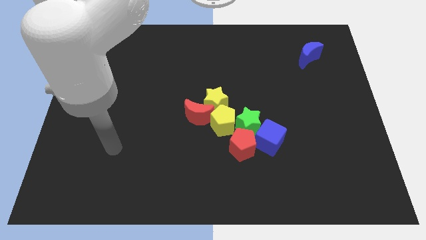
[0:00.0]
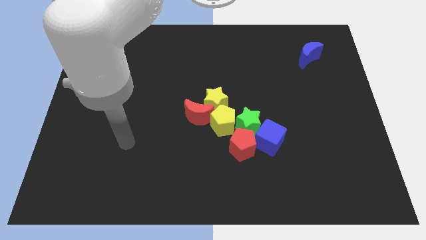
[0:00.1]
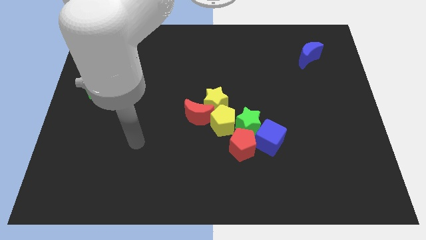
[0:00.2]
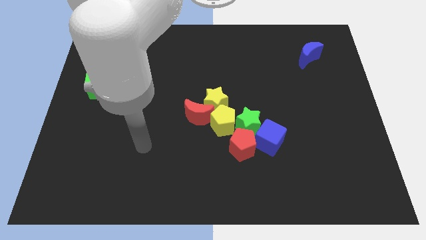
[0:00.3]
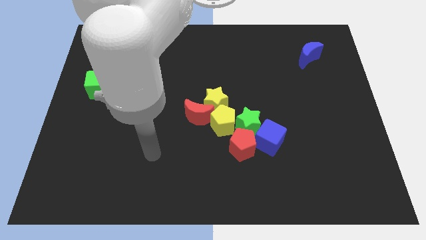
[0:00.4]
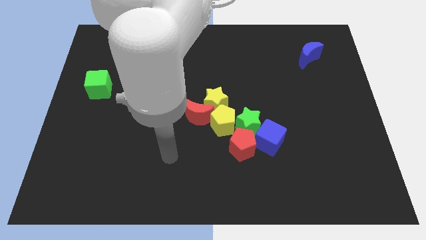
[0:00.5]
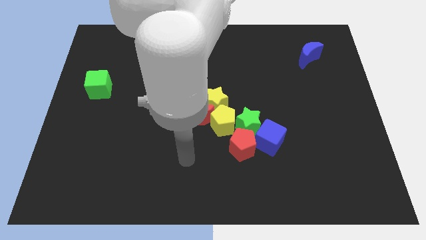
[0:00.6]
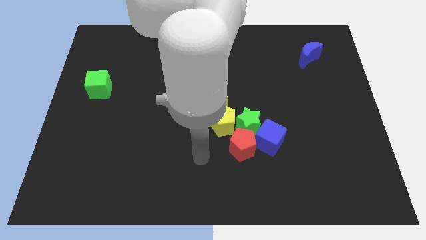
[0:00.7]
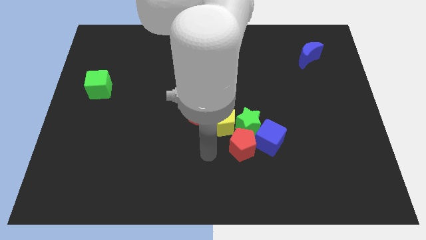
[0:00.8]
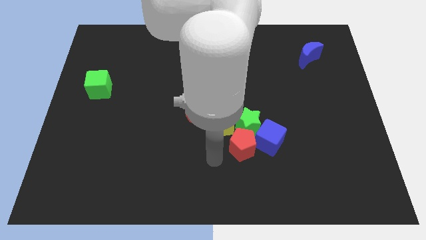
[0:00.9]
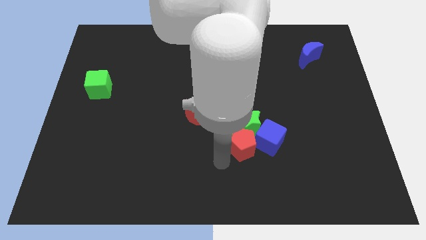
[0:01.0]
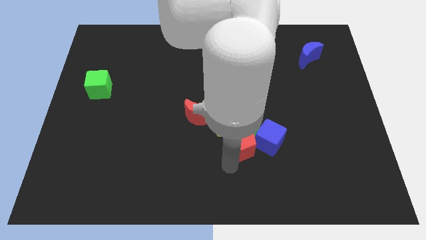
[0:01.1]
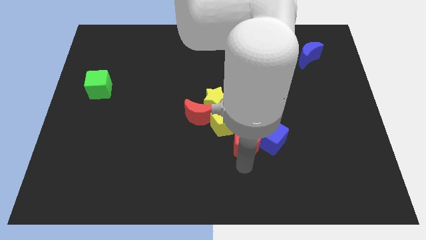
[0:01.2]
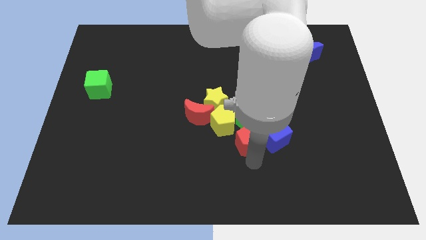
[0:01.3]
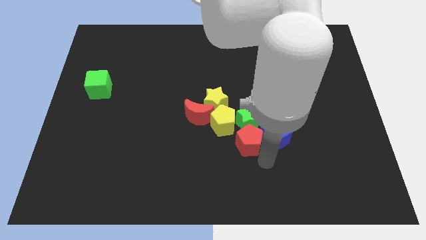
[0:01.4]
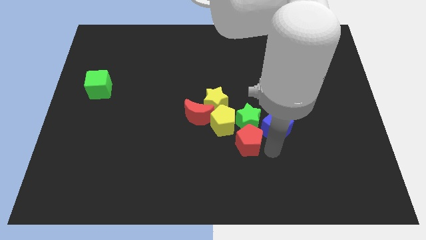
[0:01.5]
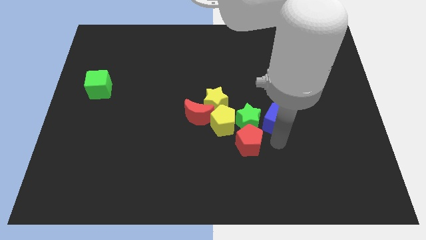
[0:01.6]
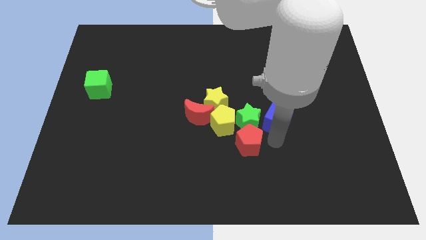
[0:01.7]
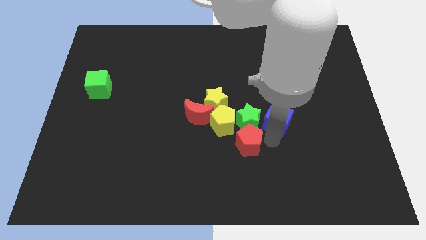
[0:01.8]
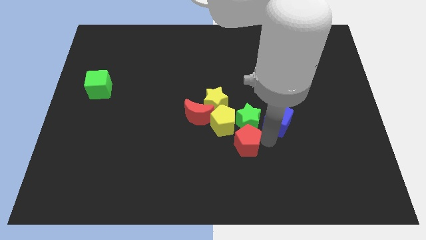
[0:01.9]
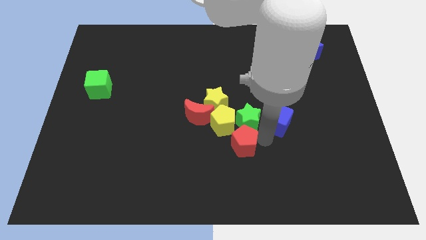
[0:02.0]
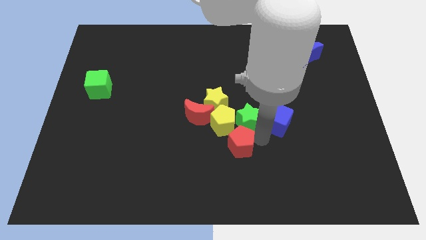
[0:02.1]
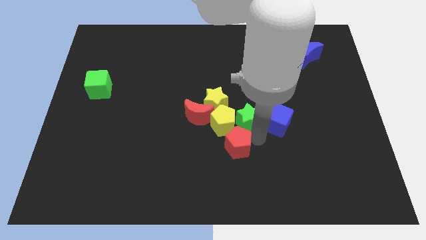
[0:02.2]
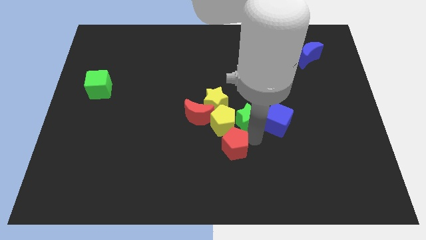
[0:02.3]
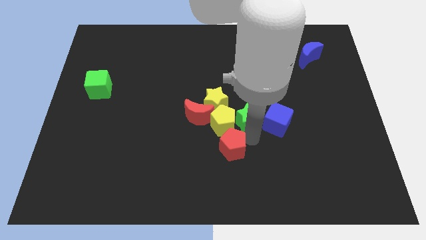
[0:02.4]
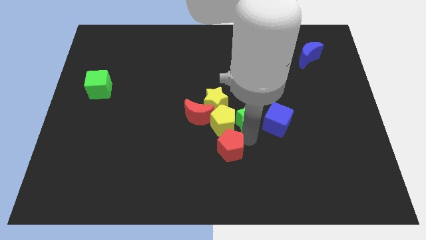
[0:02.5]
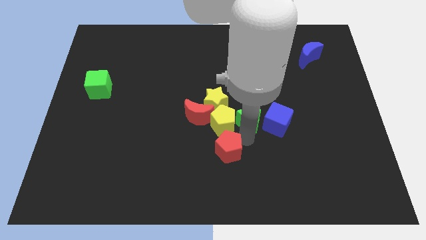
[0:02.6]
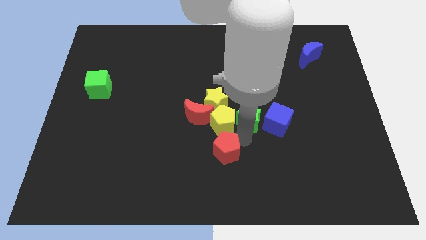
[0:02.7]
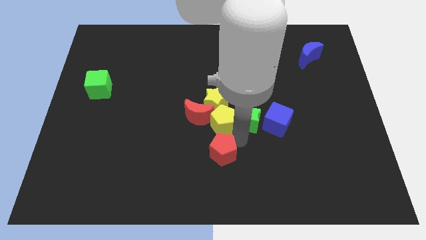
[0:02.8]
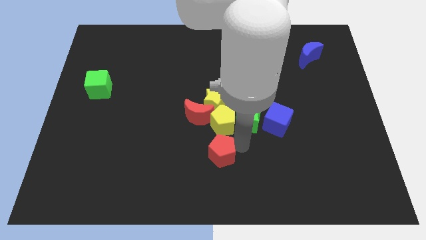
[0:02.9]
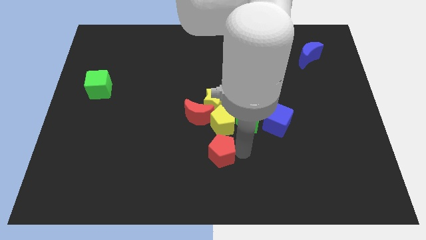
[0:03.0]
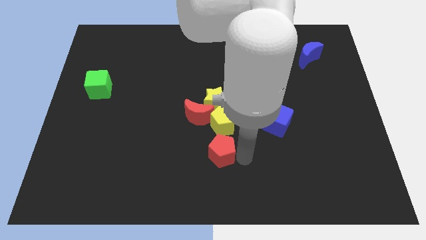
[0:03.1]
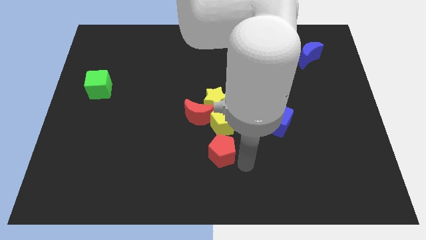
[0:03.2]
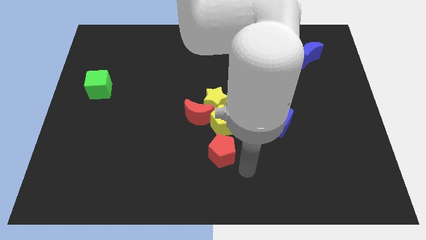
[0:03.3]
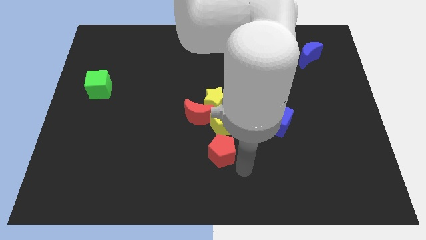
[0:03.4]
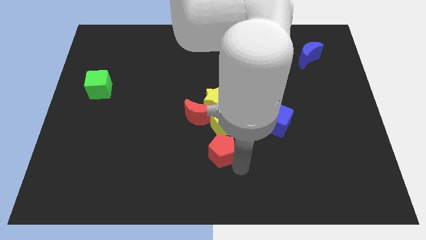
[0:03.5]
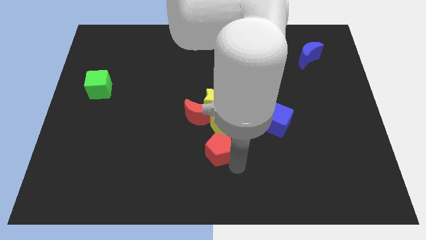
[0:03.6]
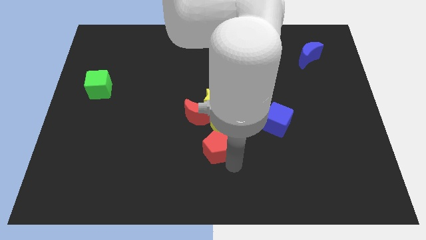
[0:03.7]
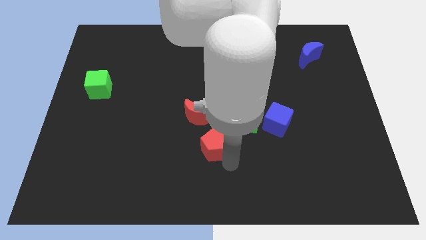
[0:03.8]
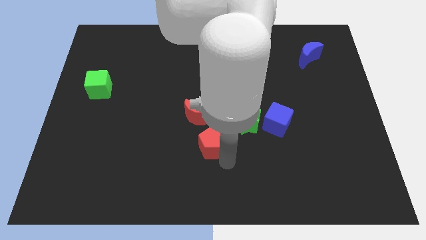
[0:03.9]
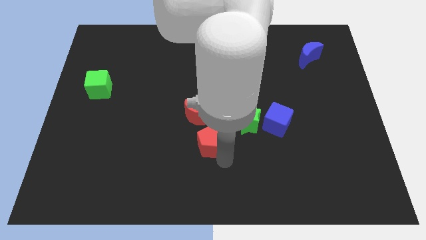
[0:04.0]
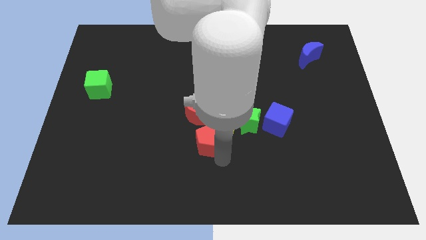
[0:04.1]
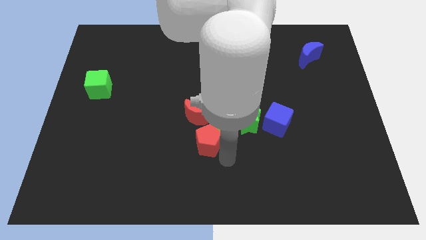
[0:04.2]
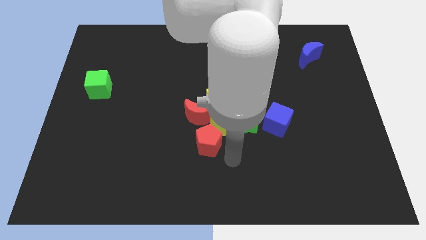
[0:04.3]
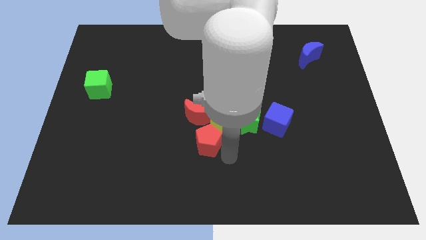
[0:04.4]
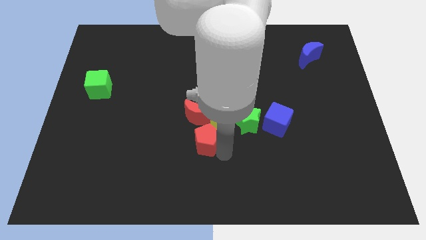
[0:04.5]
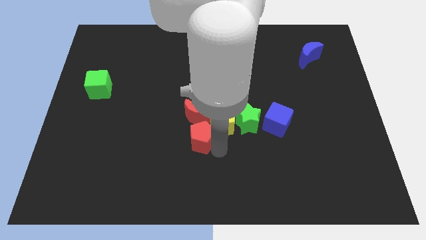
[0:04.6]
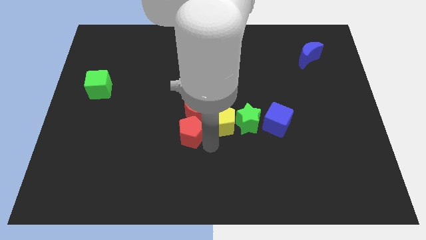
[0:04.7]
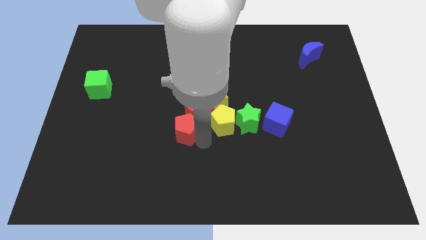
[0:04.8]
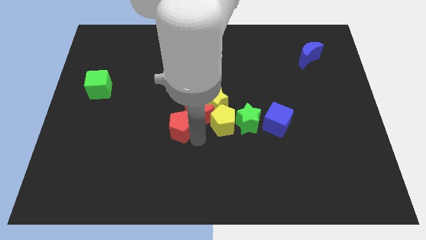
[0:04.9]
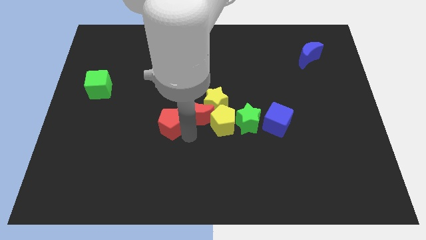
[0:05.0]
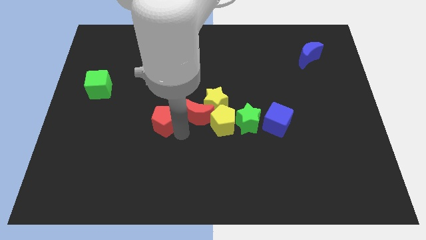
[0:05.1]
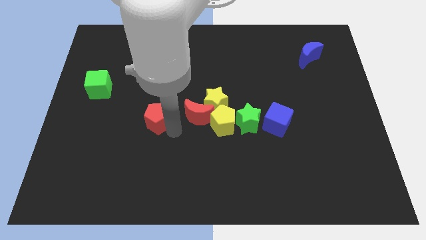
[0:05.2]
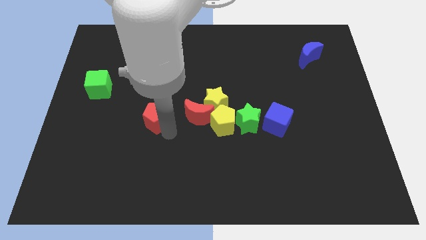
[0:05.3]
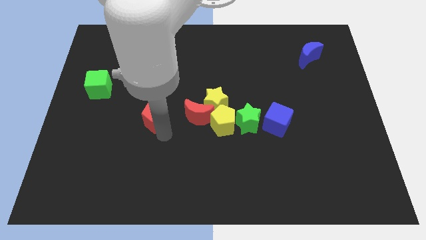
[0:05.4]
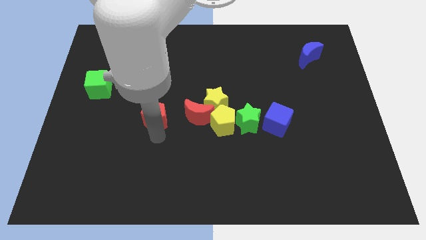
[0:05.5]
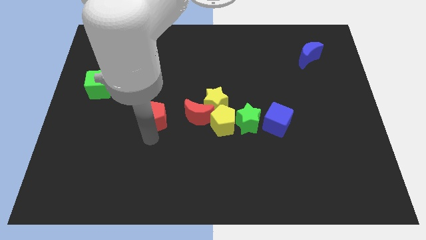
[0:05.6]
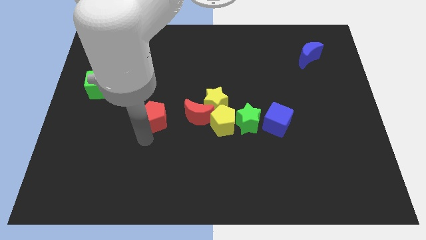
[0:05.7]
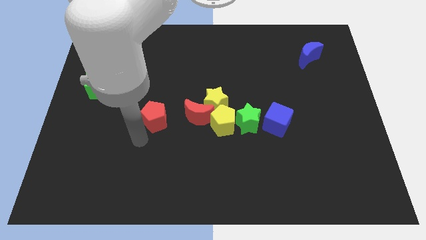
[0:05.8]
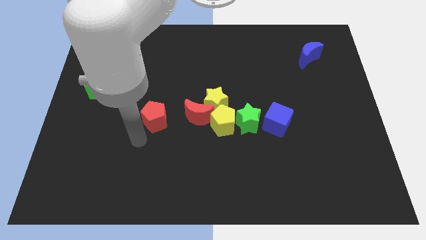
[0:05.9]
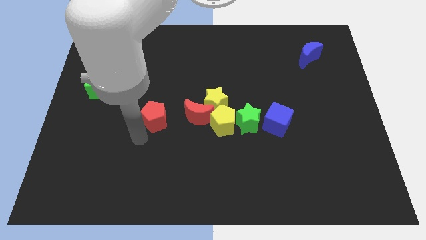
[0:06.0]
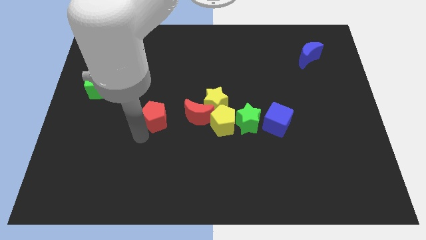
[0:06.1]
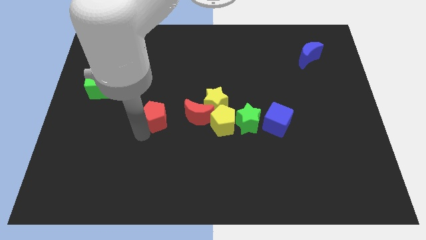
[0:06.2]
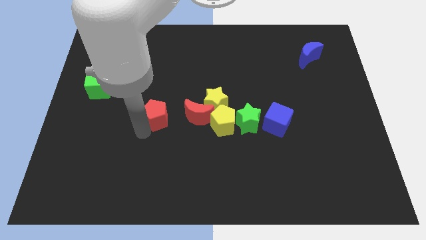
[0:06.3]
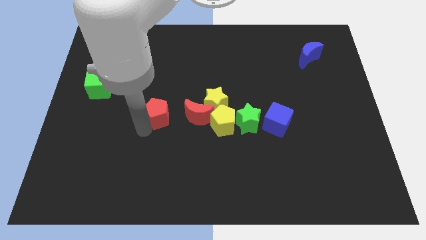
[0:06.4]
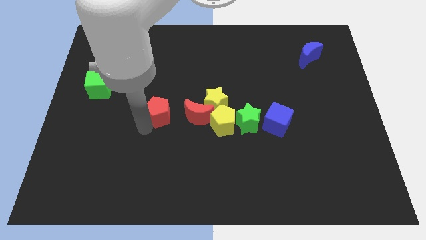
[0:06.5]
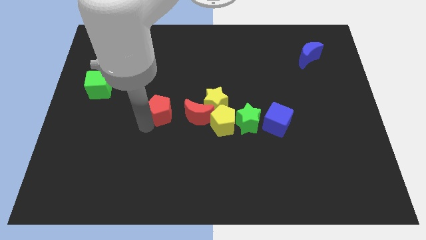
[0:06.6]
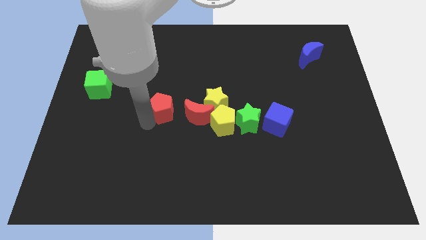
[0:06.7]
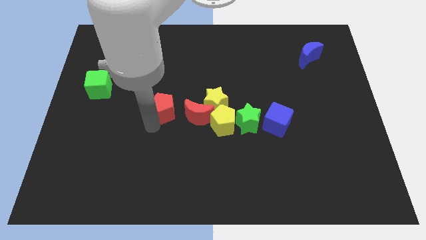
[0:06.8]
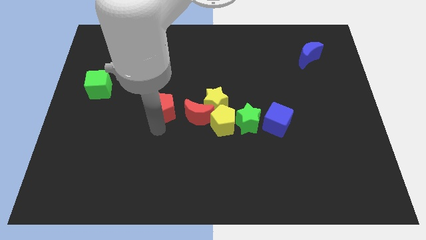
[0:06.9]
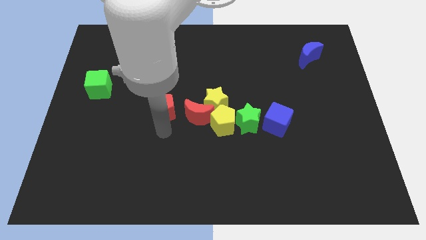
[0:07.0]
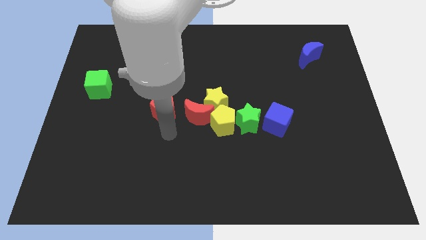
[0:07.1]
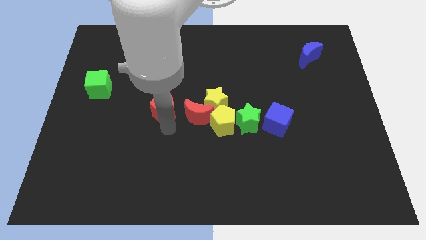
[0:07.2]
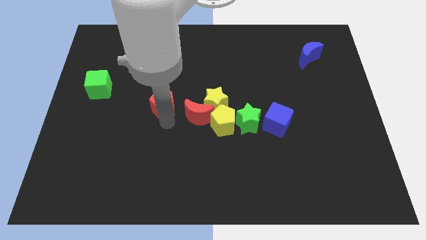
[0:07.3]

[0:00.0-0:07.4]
move the red pentagon upwards and to the left diagonally
